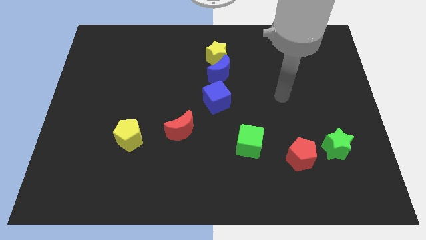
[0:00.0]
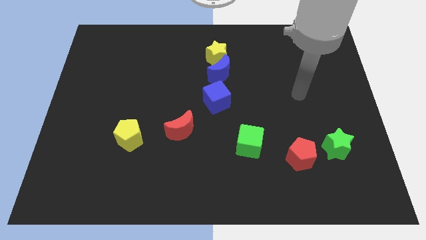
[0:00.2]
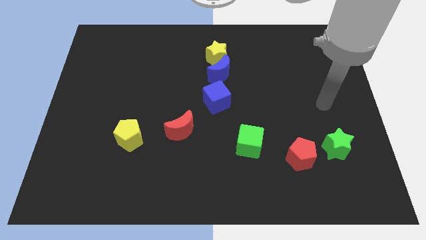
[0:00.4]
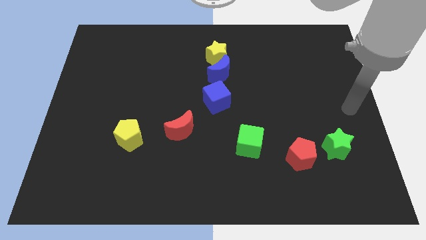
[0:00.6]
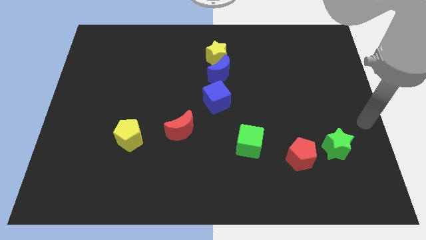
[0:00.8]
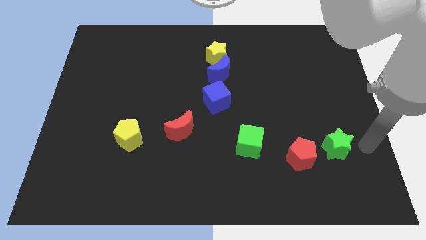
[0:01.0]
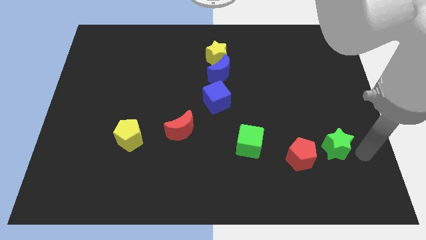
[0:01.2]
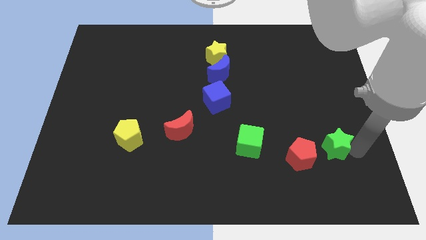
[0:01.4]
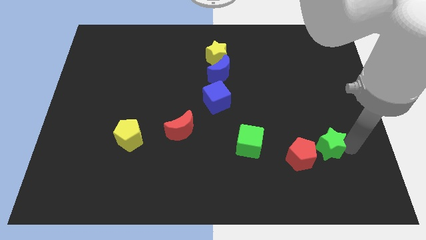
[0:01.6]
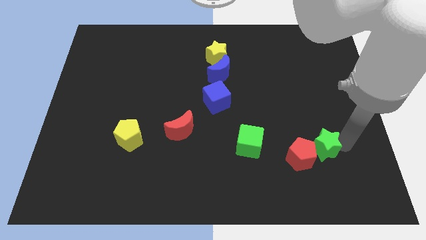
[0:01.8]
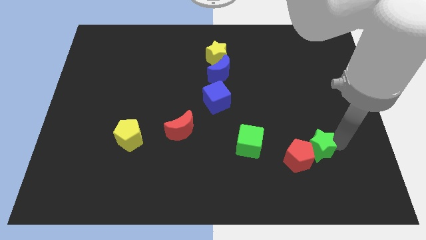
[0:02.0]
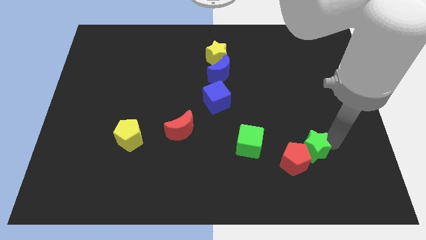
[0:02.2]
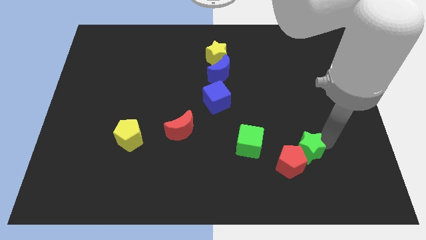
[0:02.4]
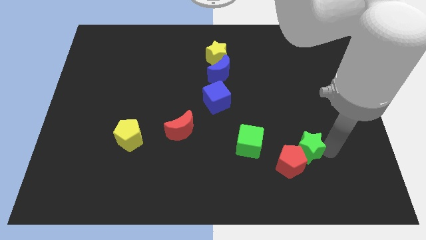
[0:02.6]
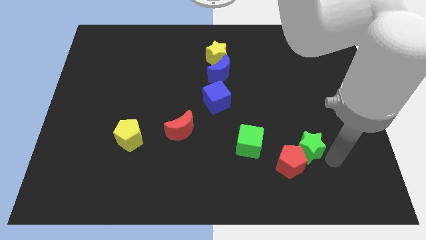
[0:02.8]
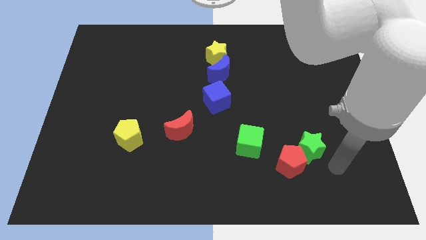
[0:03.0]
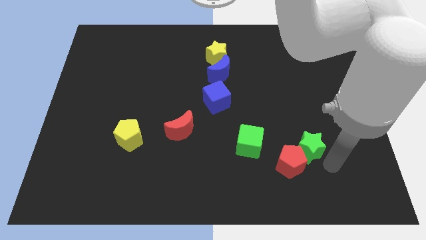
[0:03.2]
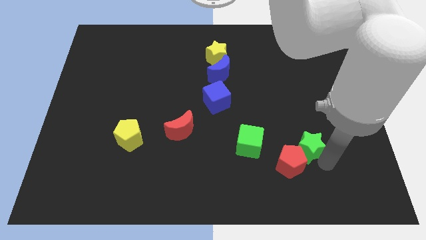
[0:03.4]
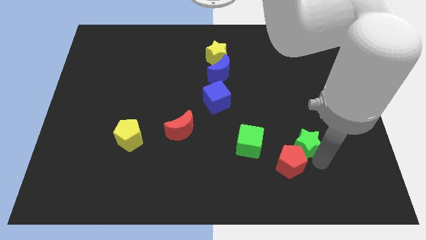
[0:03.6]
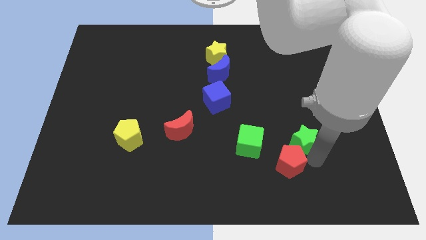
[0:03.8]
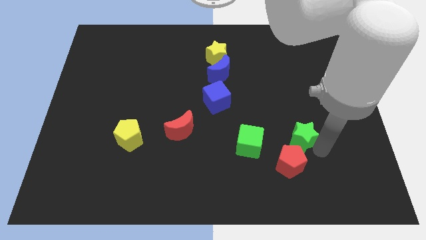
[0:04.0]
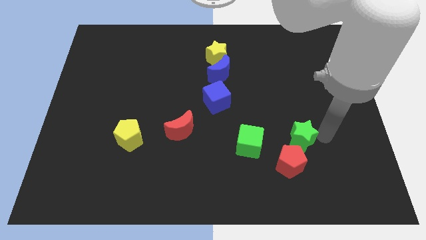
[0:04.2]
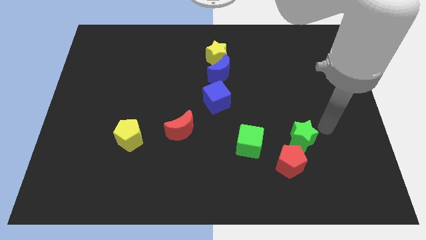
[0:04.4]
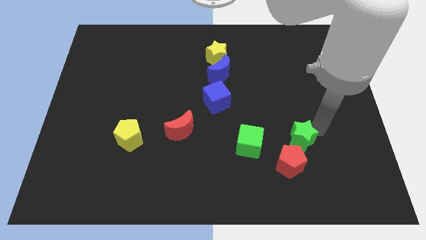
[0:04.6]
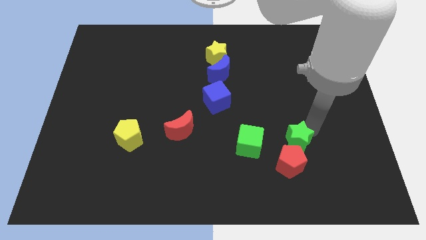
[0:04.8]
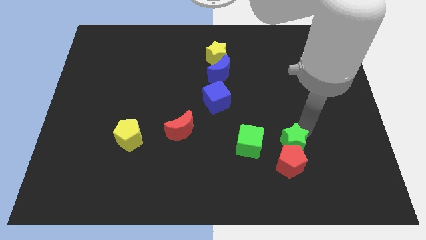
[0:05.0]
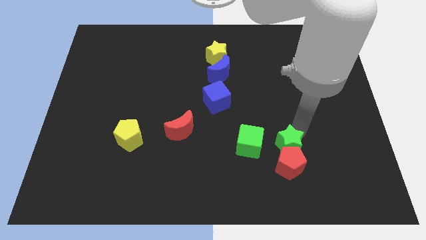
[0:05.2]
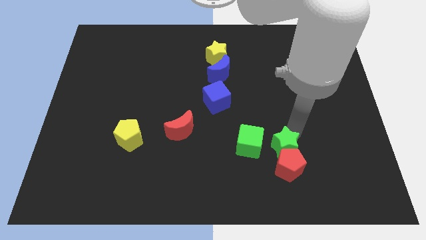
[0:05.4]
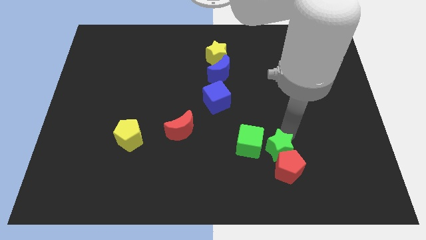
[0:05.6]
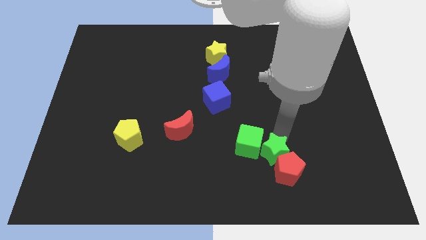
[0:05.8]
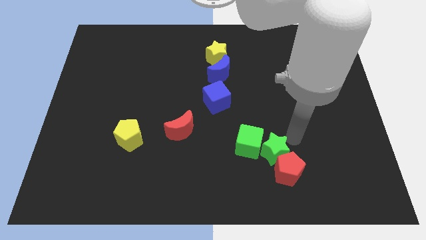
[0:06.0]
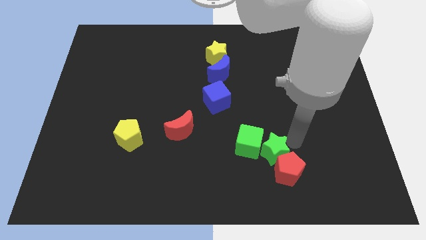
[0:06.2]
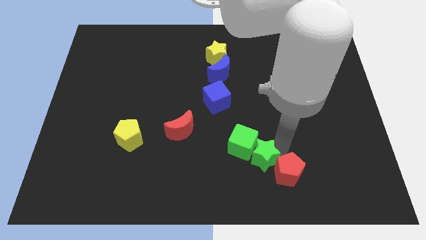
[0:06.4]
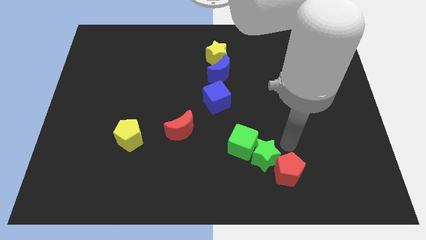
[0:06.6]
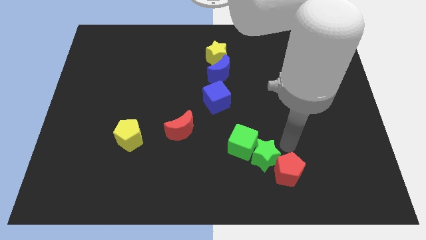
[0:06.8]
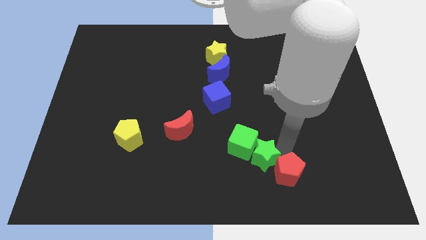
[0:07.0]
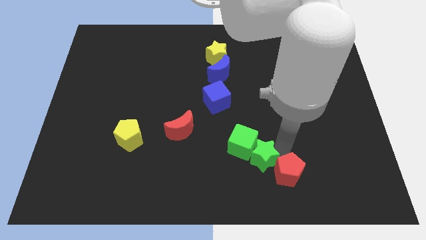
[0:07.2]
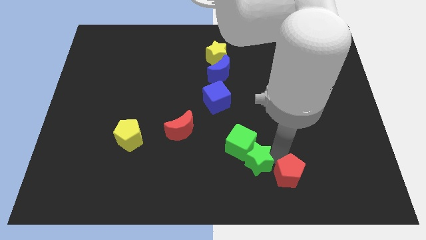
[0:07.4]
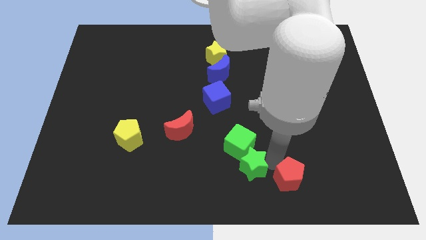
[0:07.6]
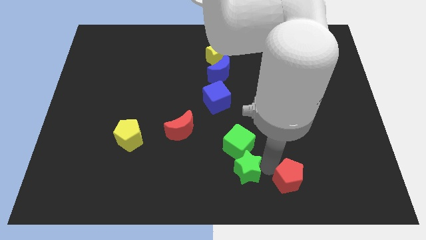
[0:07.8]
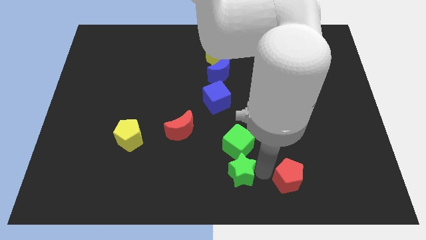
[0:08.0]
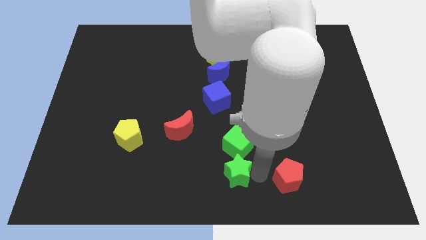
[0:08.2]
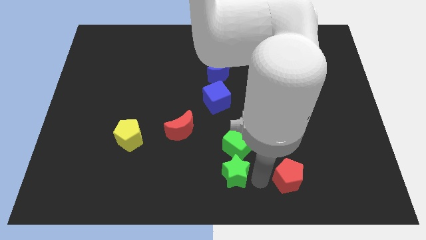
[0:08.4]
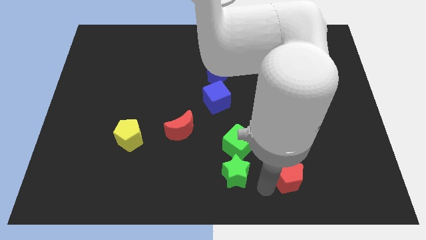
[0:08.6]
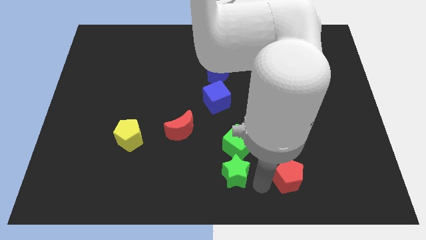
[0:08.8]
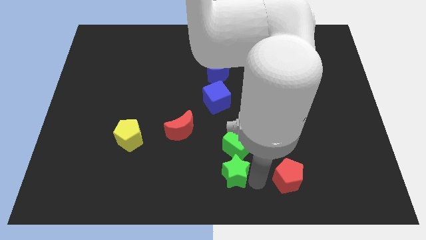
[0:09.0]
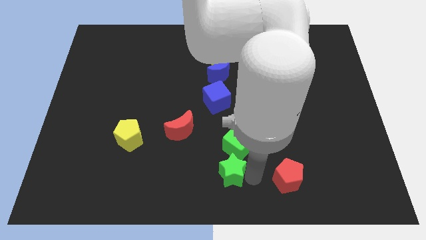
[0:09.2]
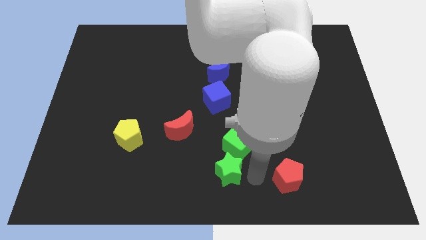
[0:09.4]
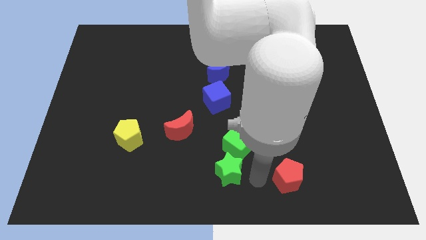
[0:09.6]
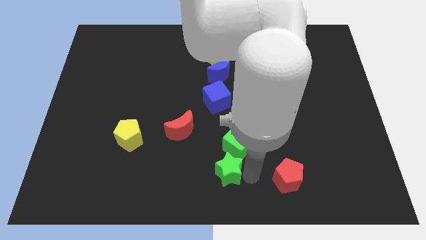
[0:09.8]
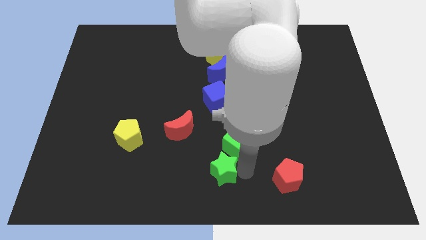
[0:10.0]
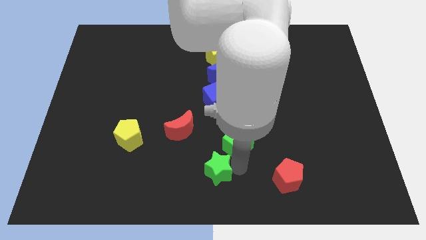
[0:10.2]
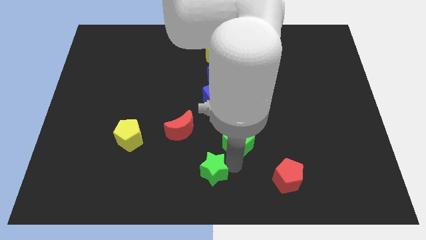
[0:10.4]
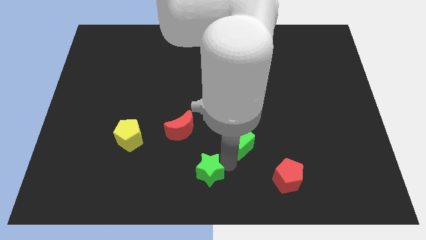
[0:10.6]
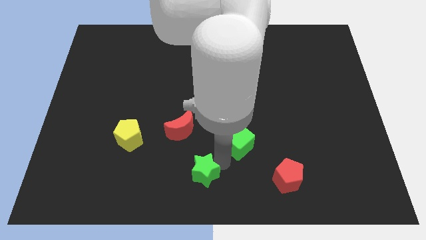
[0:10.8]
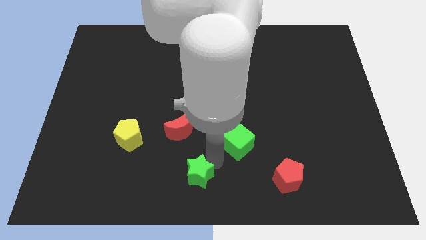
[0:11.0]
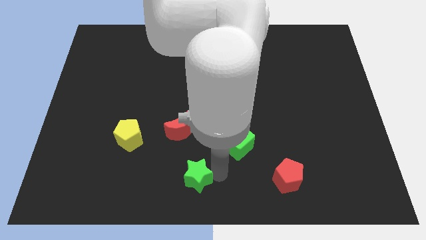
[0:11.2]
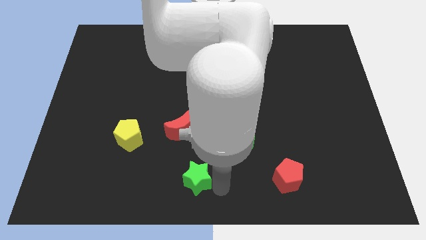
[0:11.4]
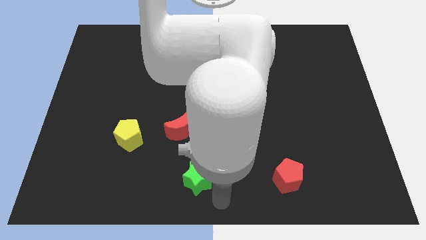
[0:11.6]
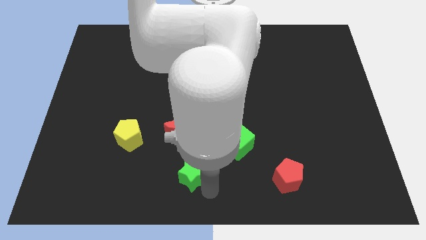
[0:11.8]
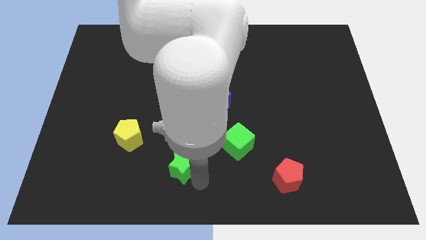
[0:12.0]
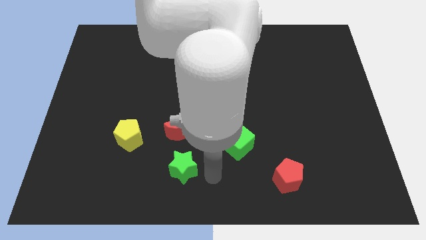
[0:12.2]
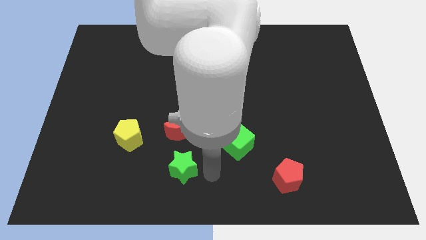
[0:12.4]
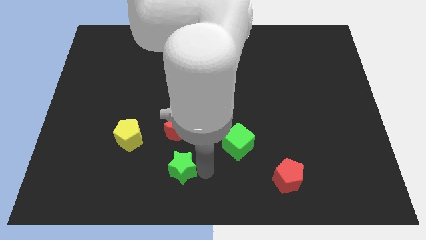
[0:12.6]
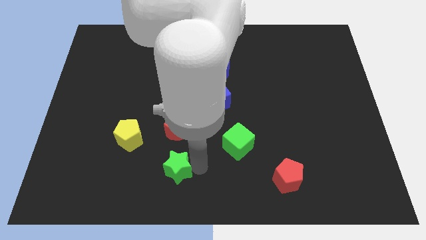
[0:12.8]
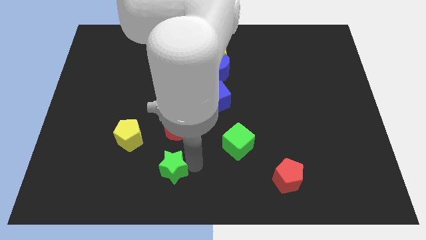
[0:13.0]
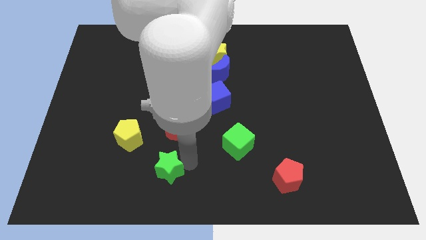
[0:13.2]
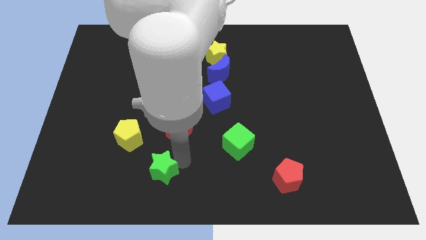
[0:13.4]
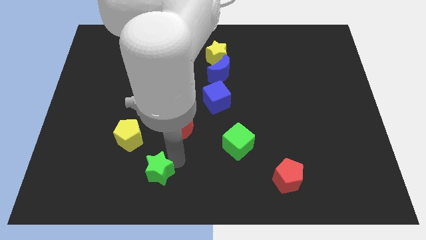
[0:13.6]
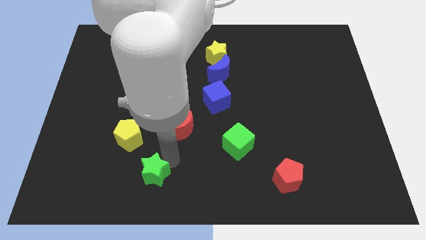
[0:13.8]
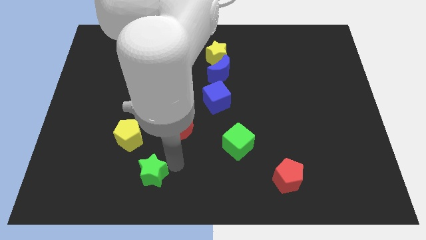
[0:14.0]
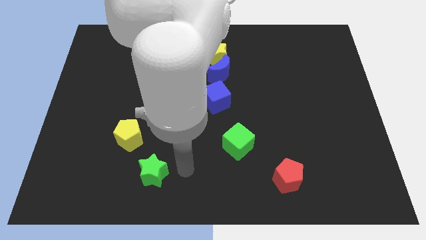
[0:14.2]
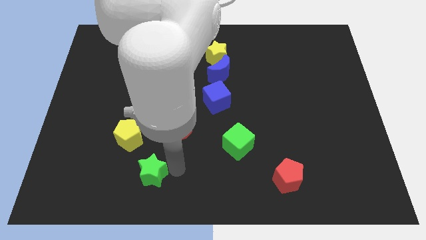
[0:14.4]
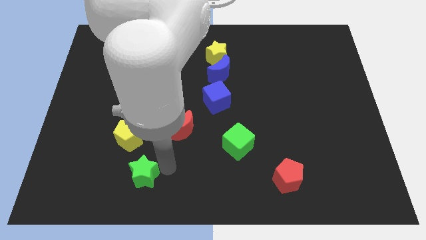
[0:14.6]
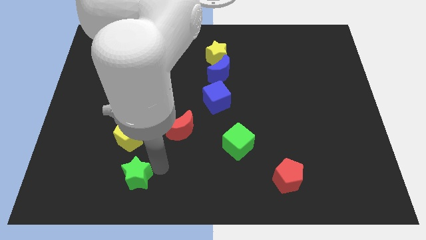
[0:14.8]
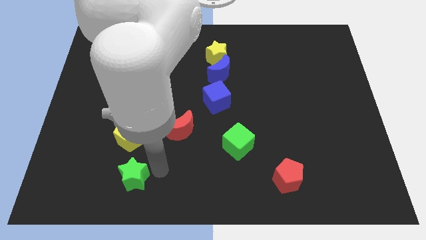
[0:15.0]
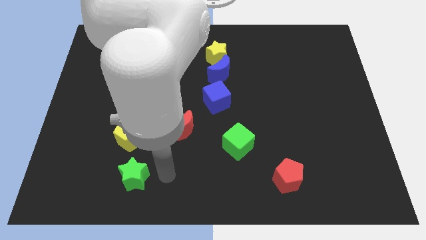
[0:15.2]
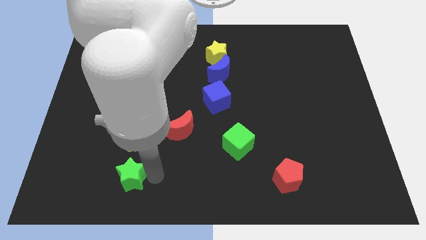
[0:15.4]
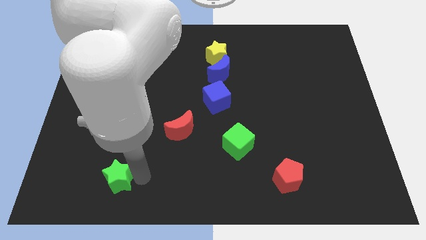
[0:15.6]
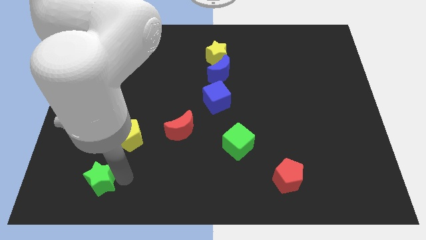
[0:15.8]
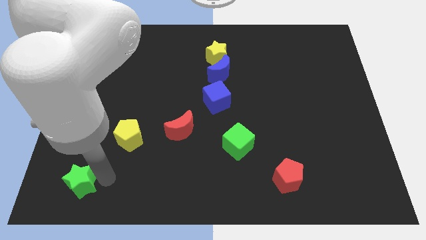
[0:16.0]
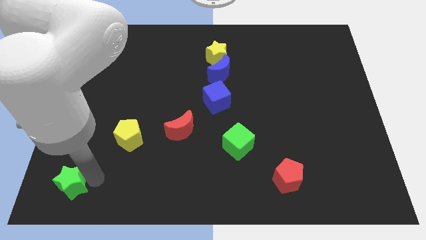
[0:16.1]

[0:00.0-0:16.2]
slide the green star to the bottom left corner
